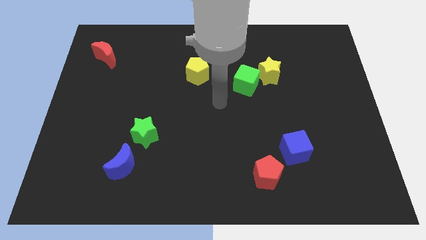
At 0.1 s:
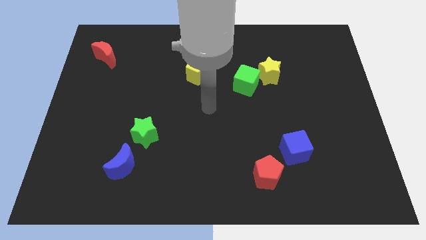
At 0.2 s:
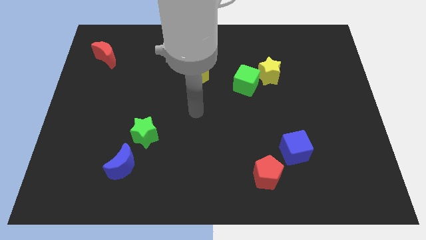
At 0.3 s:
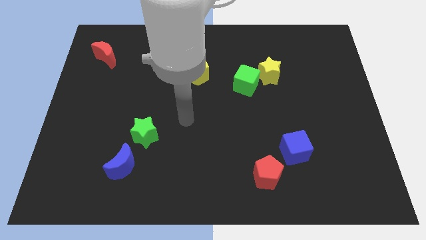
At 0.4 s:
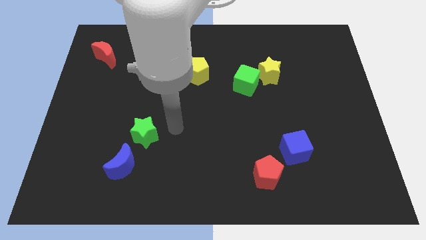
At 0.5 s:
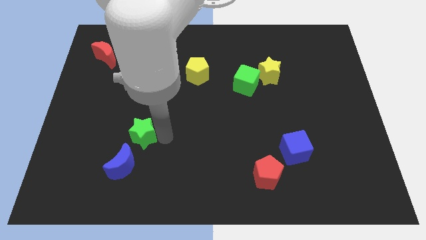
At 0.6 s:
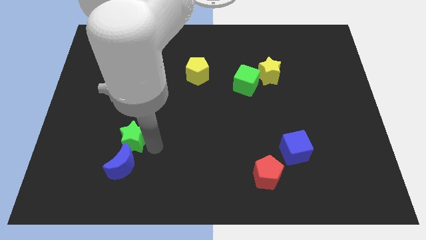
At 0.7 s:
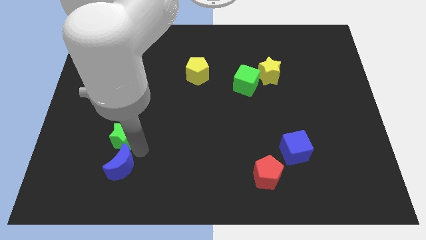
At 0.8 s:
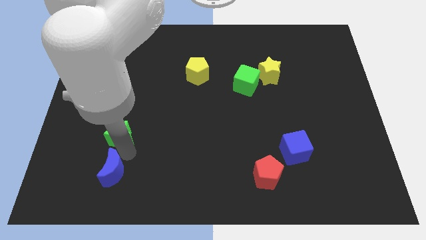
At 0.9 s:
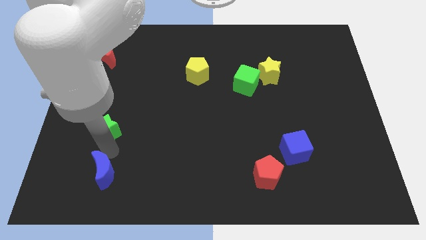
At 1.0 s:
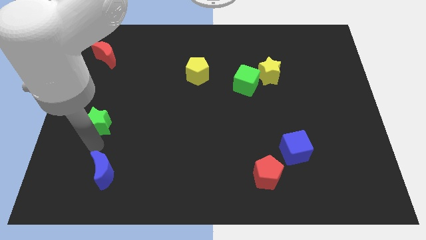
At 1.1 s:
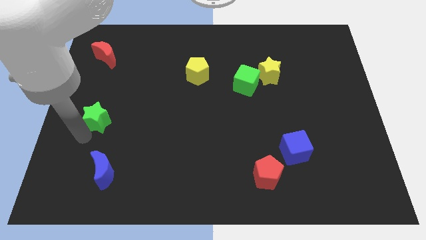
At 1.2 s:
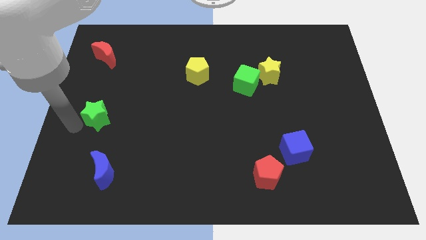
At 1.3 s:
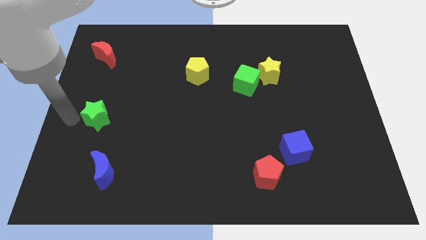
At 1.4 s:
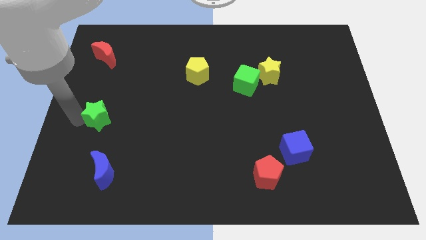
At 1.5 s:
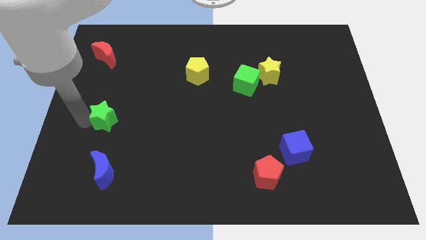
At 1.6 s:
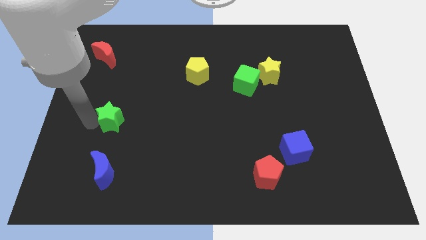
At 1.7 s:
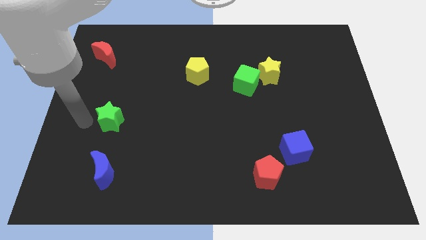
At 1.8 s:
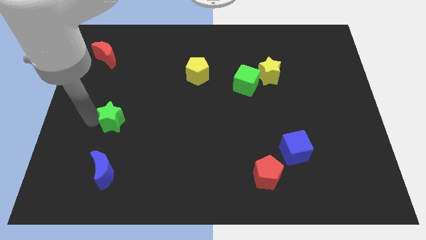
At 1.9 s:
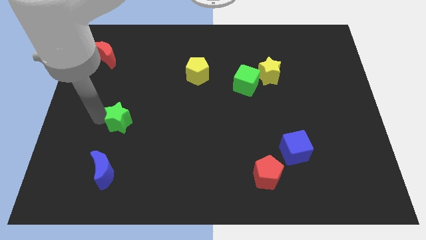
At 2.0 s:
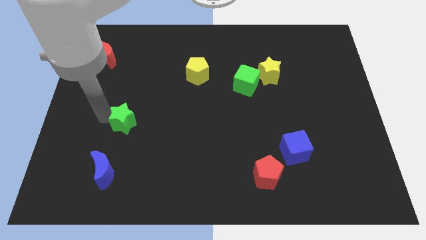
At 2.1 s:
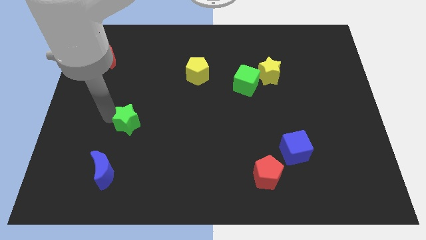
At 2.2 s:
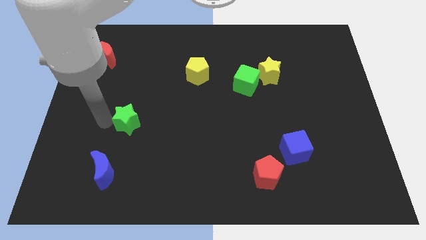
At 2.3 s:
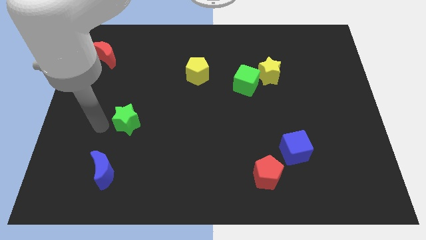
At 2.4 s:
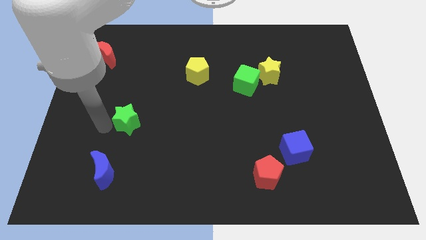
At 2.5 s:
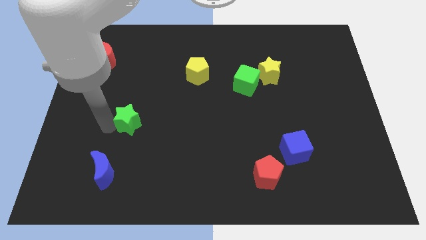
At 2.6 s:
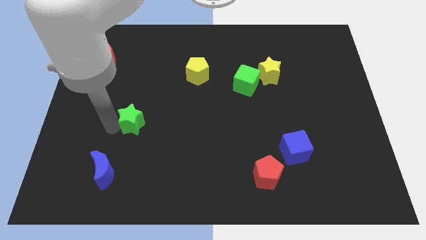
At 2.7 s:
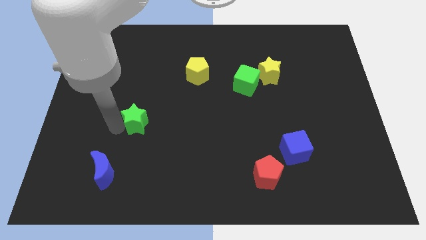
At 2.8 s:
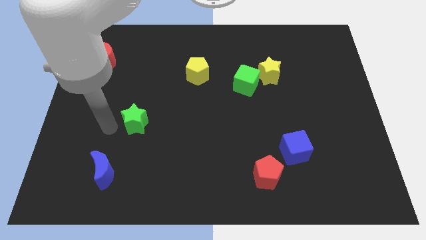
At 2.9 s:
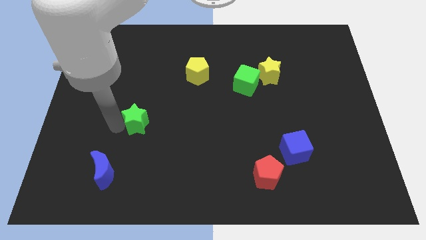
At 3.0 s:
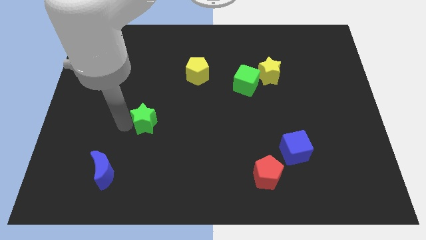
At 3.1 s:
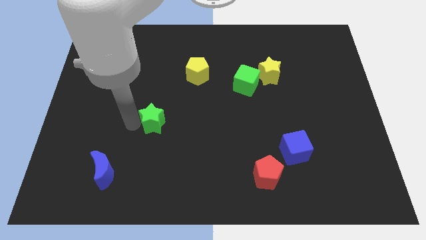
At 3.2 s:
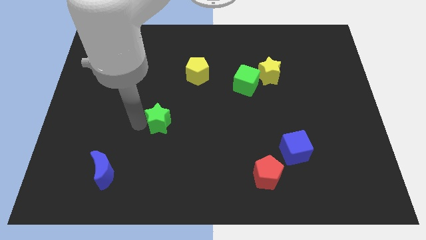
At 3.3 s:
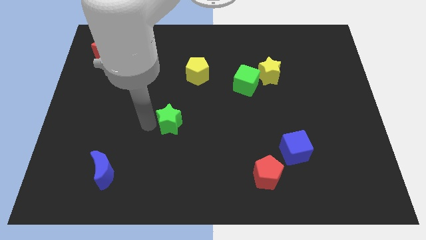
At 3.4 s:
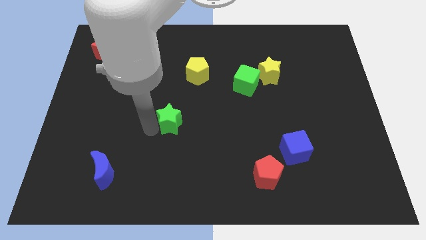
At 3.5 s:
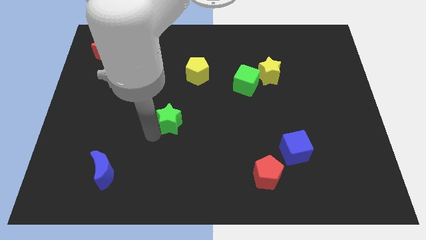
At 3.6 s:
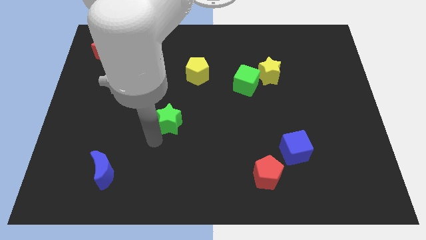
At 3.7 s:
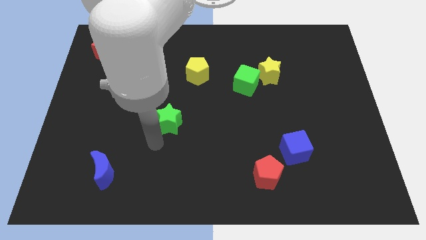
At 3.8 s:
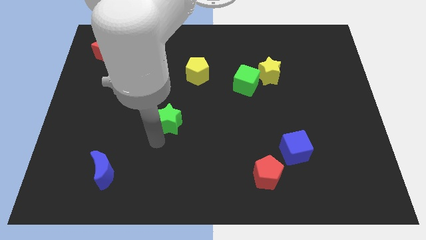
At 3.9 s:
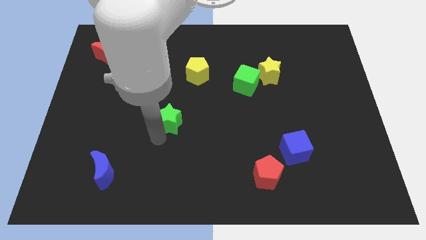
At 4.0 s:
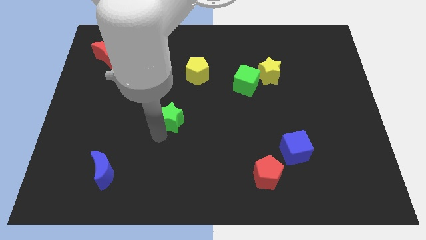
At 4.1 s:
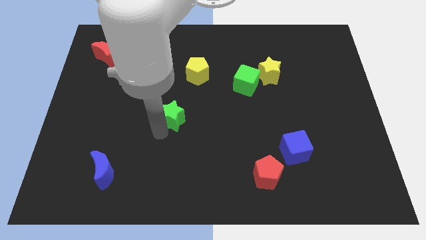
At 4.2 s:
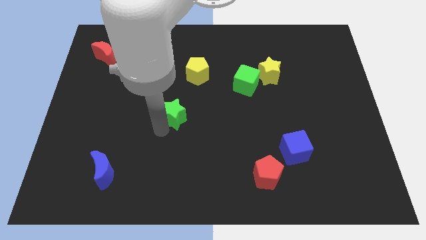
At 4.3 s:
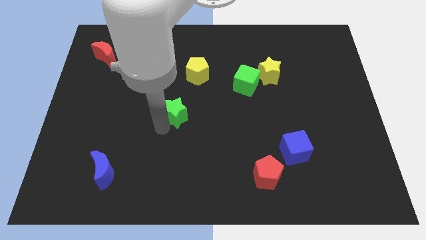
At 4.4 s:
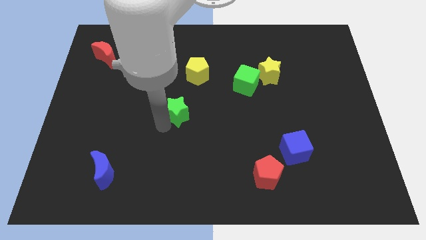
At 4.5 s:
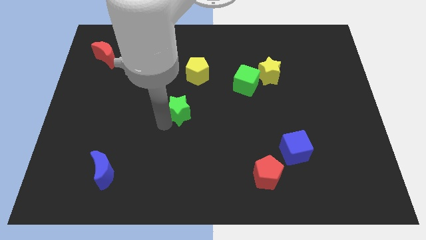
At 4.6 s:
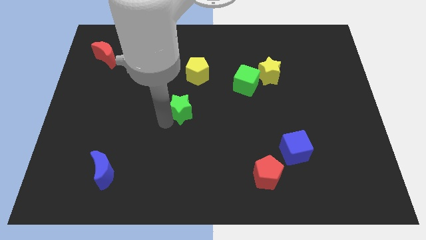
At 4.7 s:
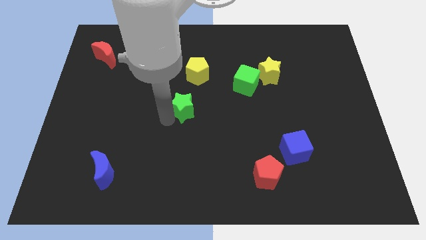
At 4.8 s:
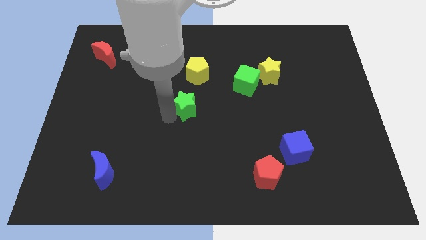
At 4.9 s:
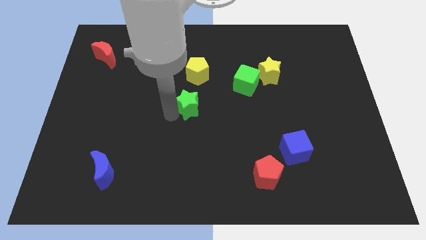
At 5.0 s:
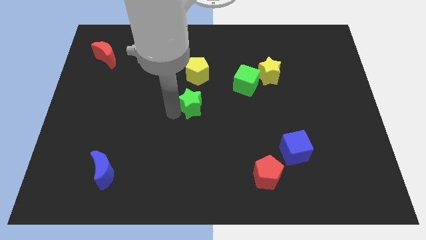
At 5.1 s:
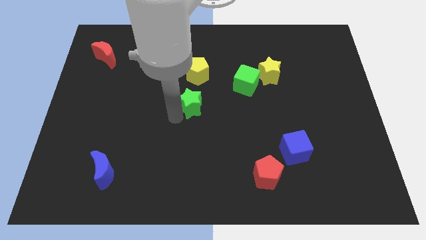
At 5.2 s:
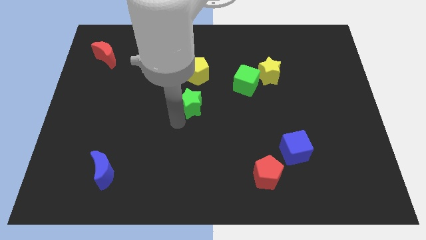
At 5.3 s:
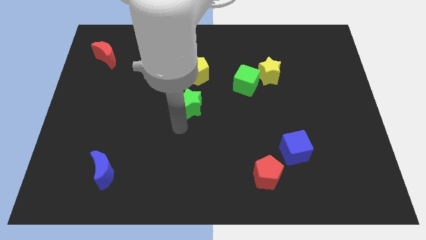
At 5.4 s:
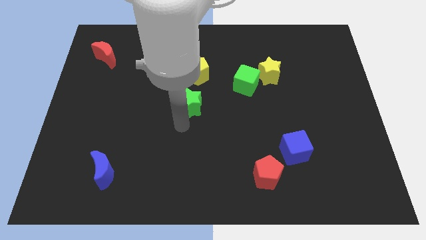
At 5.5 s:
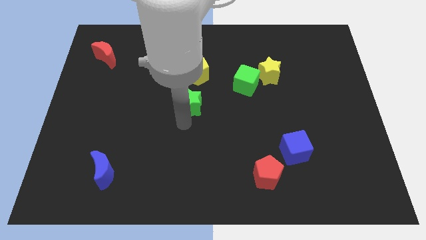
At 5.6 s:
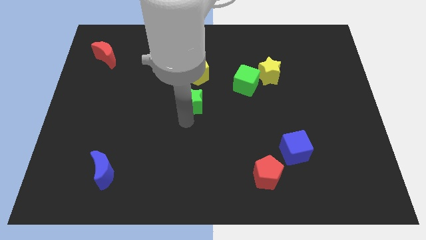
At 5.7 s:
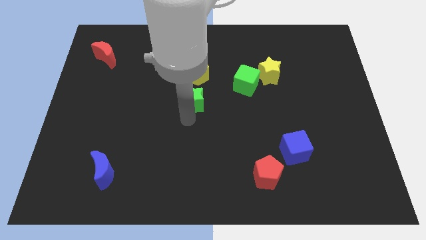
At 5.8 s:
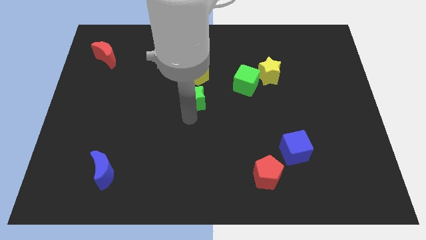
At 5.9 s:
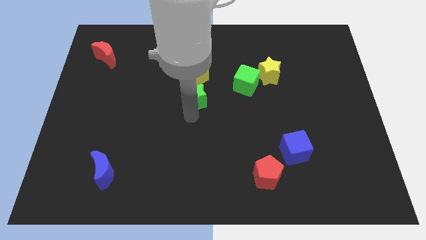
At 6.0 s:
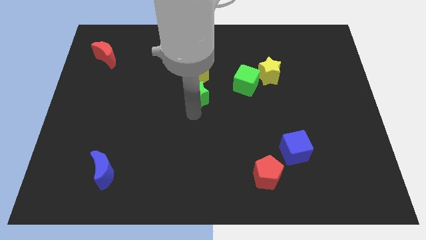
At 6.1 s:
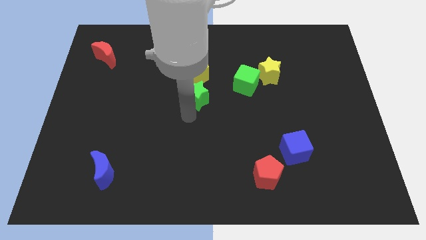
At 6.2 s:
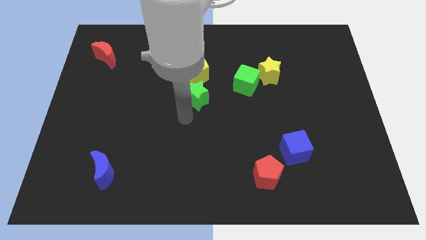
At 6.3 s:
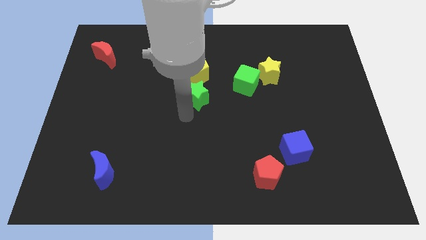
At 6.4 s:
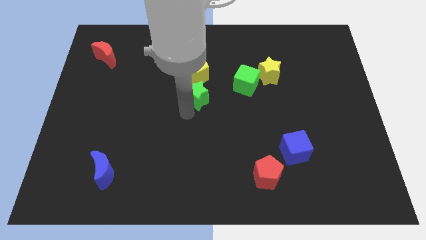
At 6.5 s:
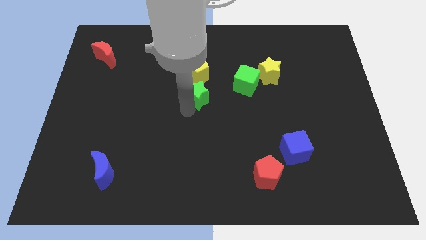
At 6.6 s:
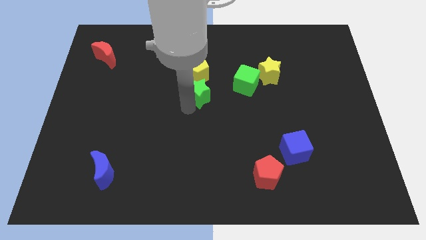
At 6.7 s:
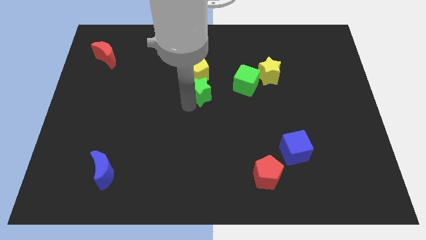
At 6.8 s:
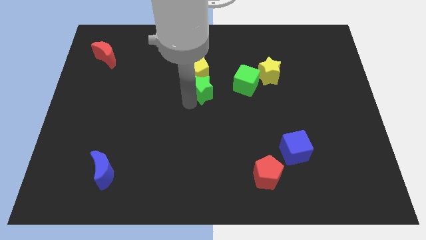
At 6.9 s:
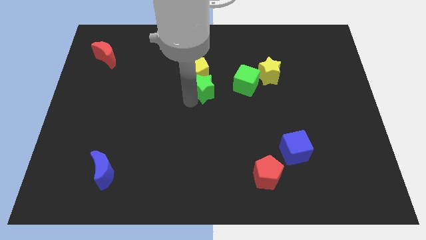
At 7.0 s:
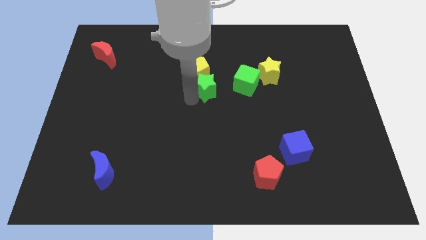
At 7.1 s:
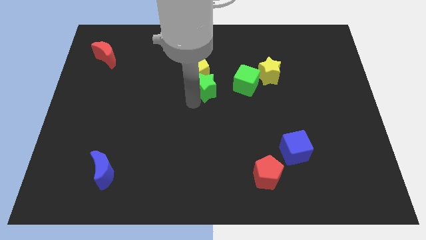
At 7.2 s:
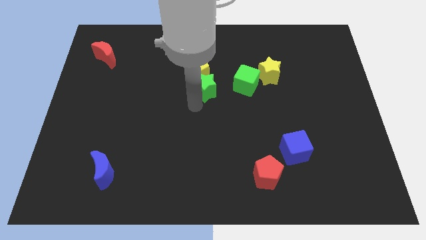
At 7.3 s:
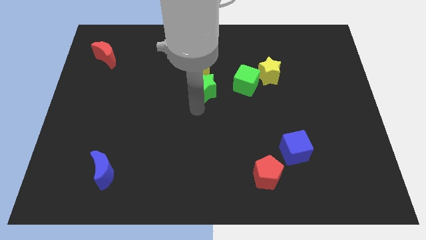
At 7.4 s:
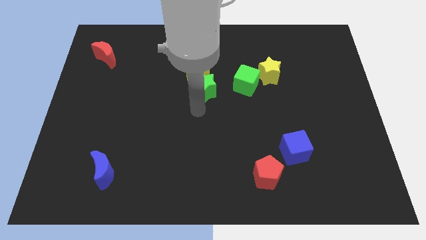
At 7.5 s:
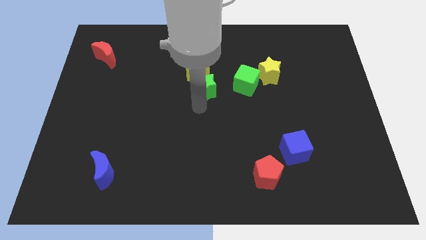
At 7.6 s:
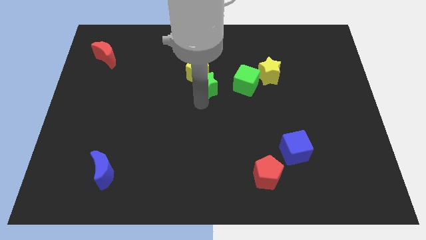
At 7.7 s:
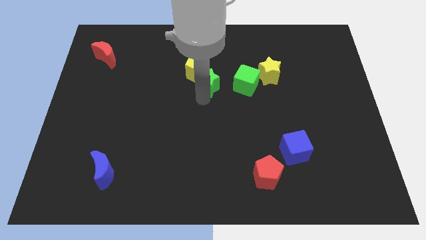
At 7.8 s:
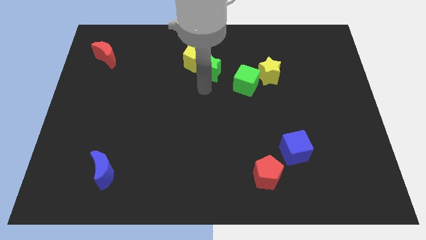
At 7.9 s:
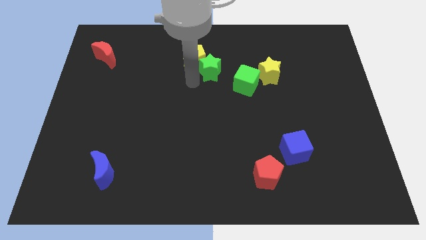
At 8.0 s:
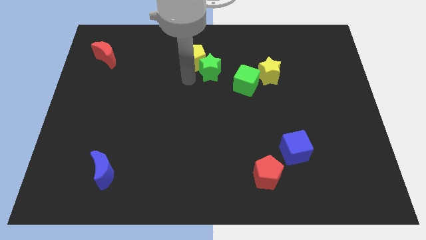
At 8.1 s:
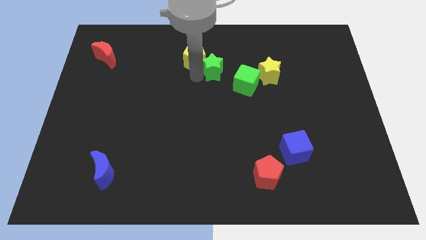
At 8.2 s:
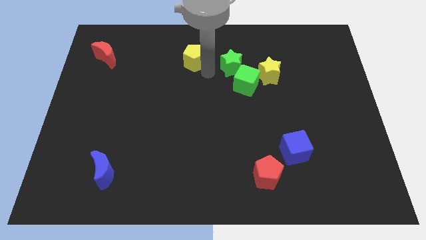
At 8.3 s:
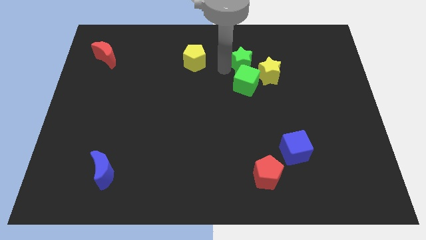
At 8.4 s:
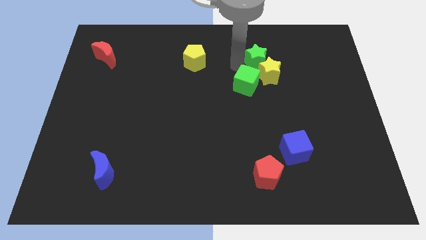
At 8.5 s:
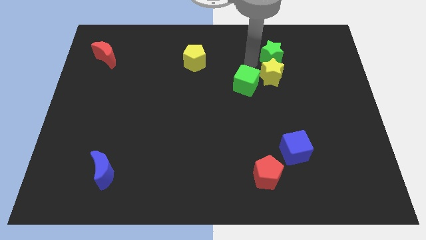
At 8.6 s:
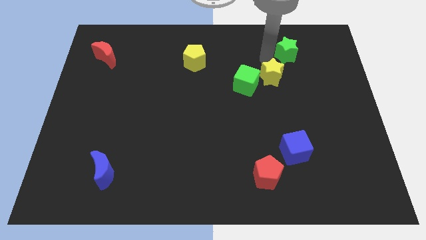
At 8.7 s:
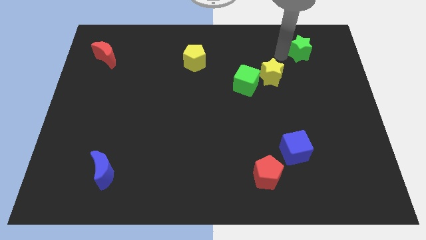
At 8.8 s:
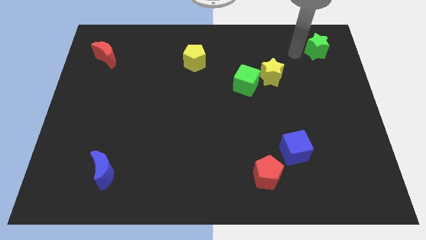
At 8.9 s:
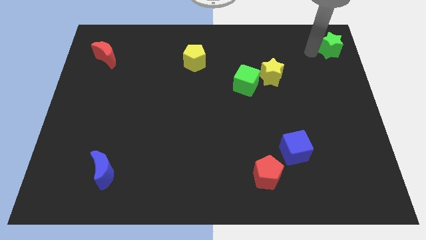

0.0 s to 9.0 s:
slide the green star to the top right
